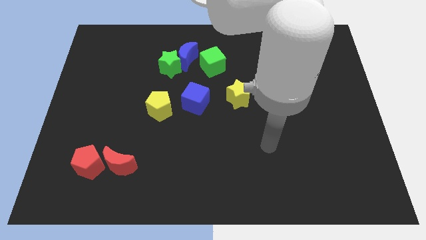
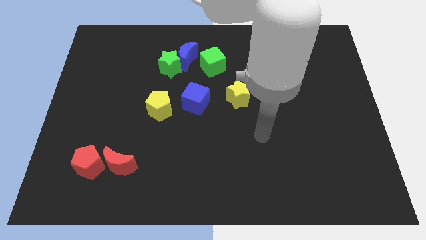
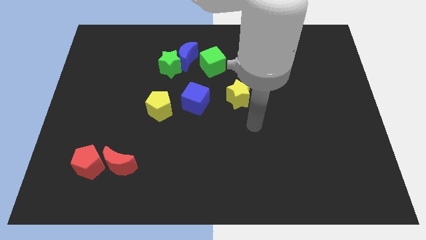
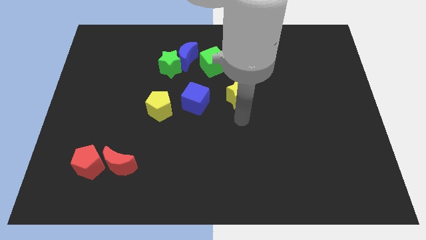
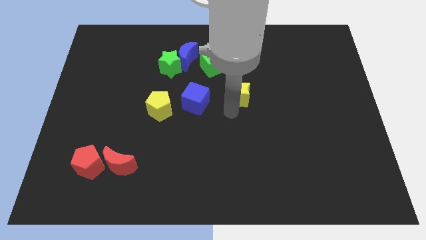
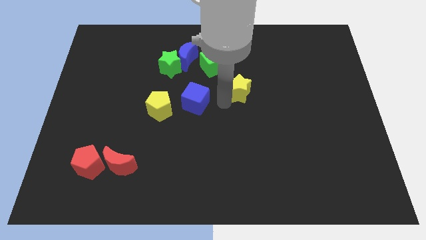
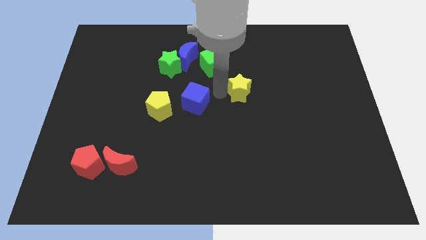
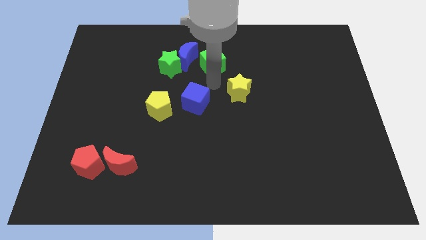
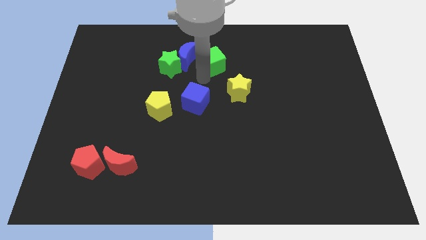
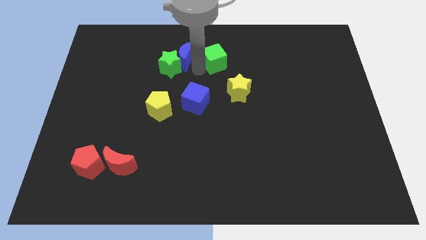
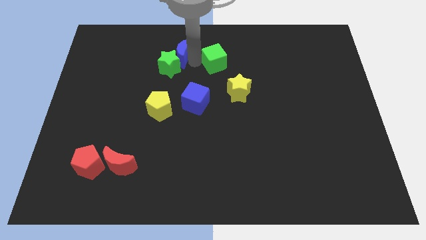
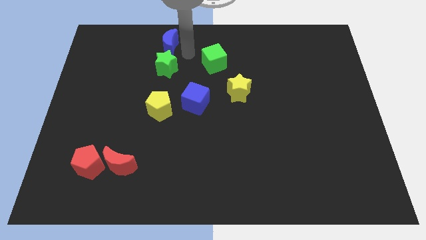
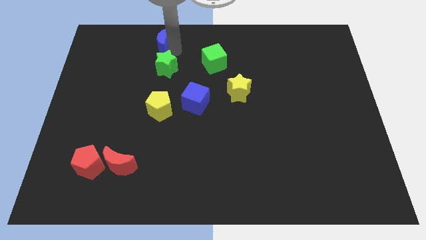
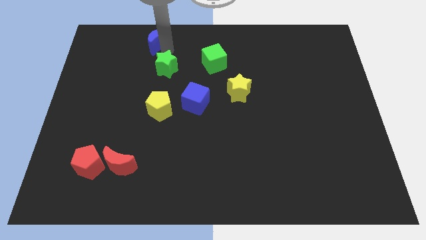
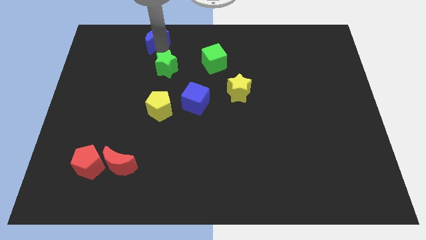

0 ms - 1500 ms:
pull the green star apart from the blue moon

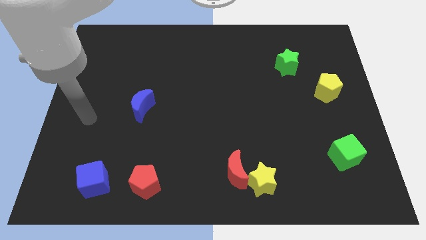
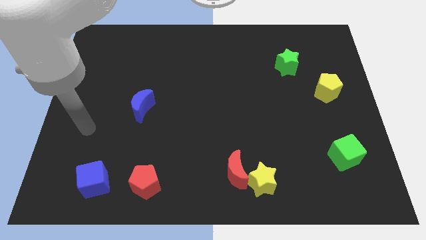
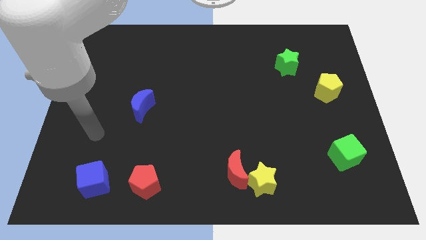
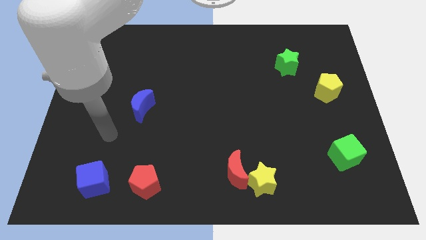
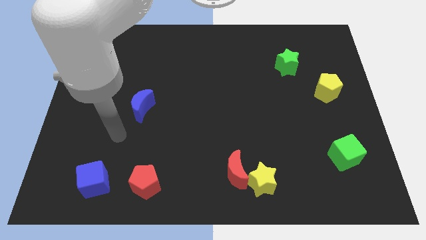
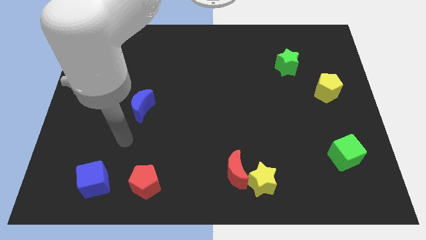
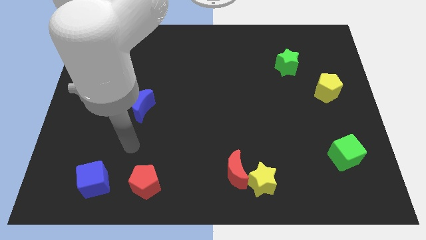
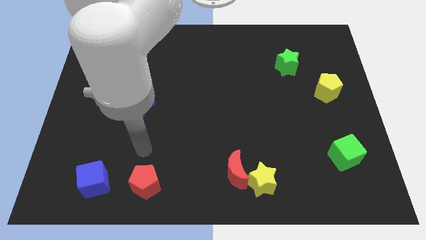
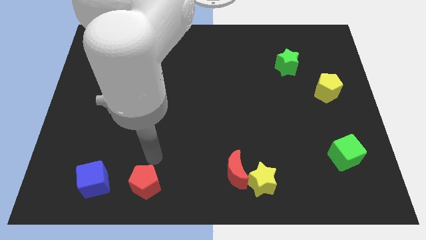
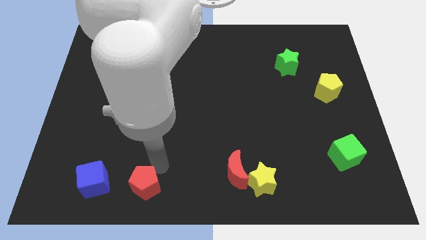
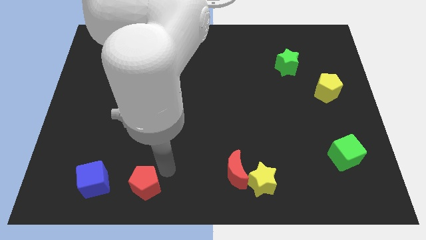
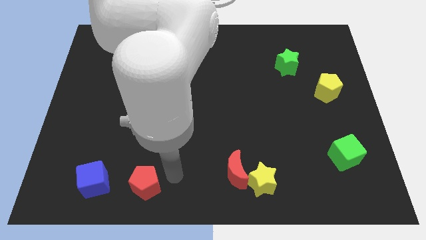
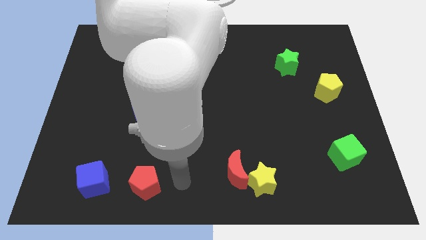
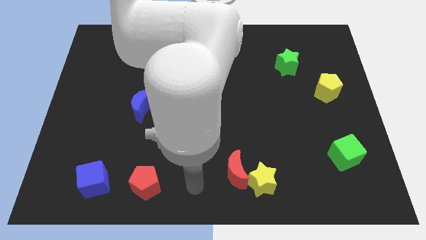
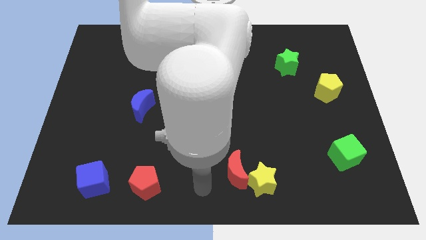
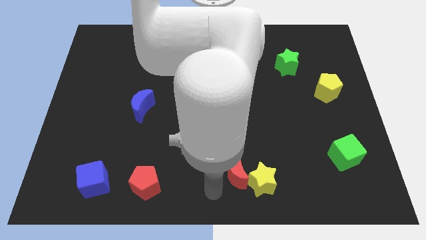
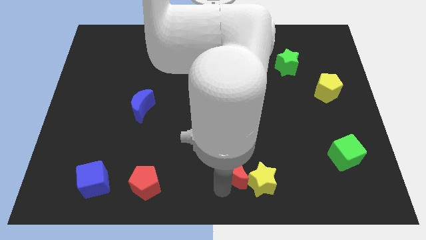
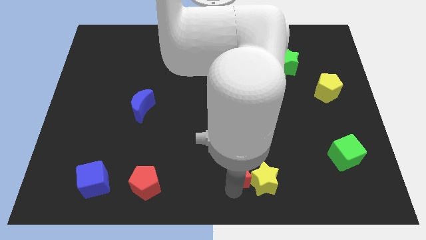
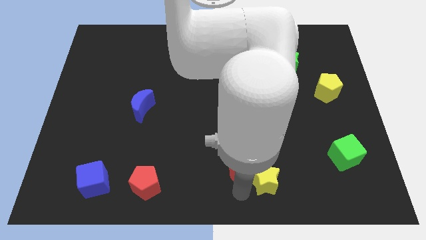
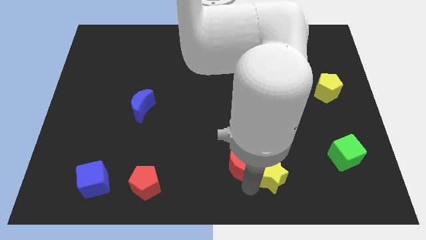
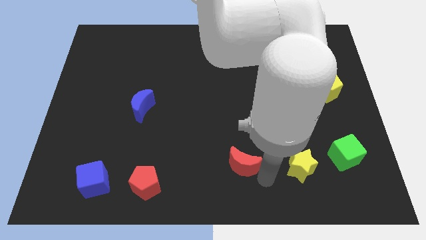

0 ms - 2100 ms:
move the red moon away from the yellow star

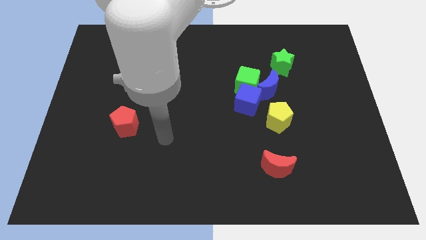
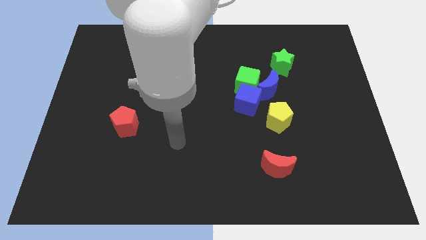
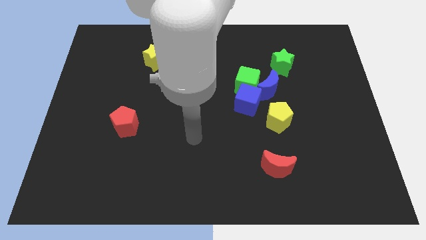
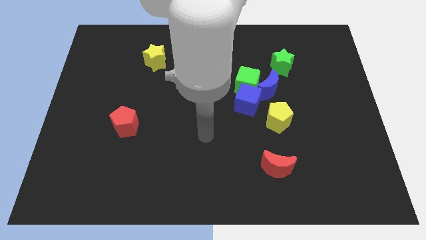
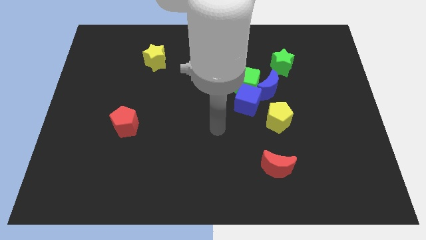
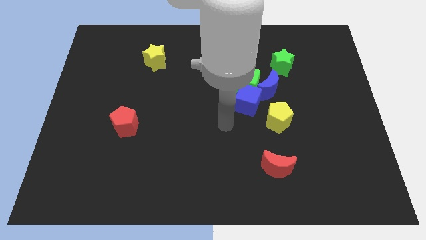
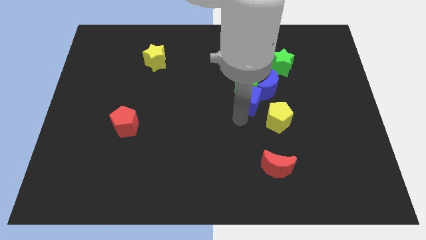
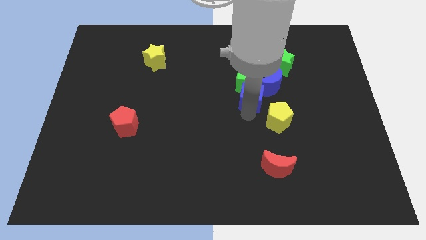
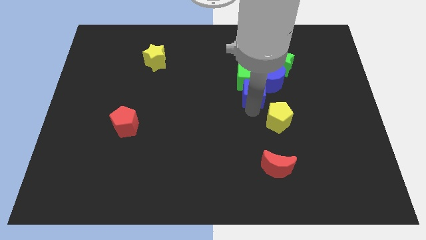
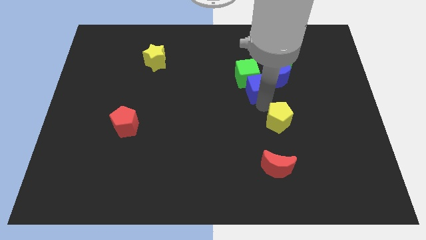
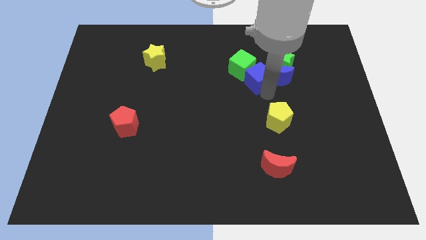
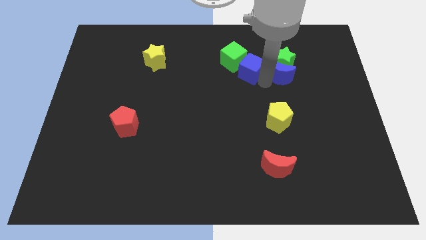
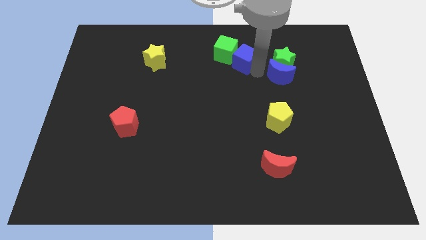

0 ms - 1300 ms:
pull the green cube apart from the blue moon and blue cube

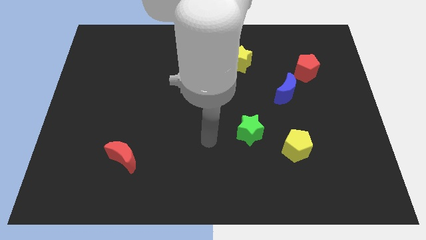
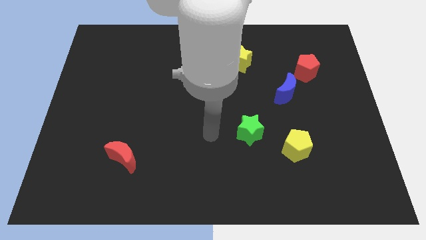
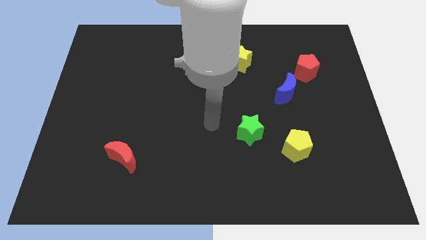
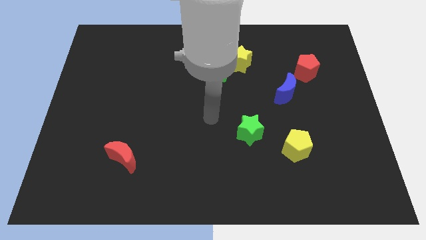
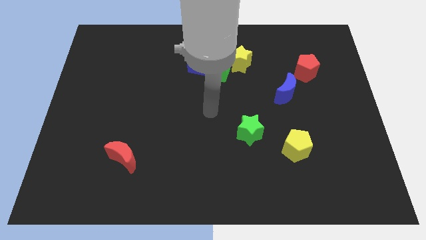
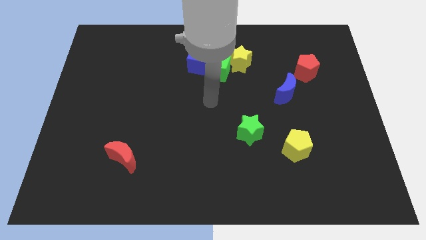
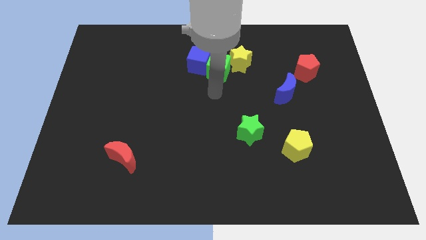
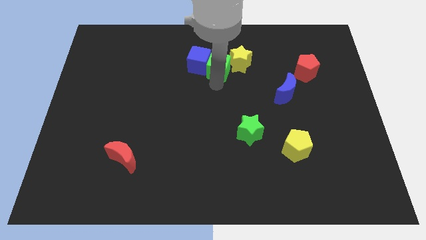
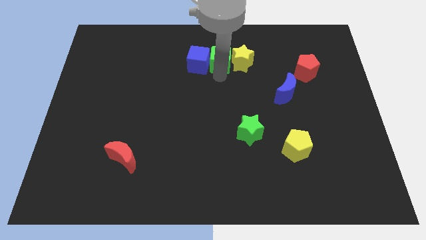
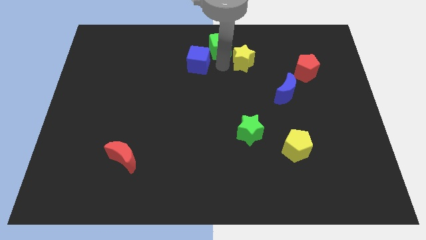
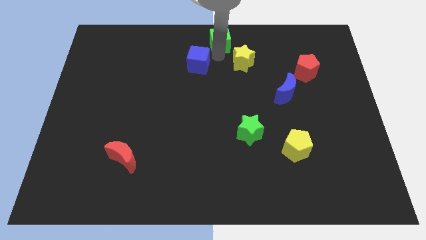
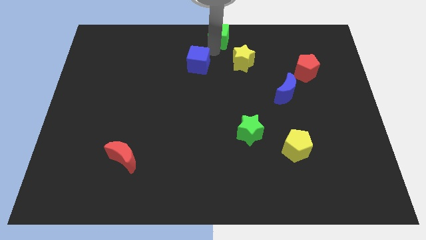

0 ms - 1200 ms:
separate the blue cube from the green cube

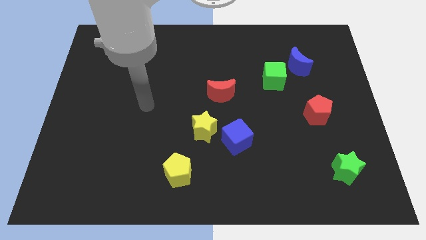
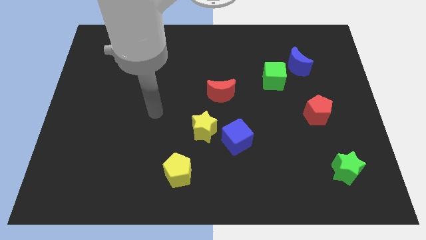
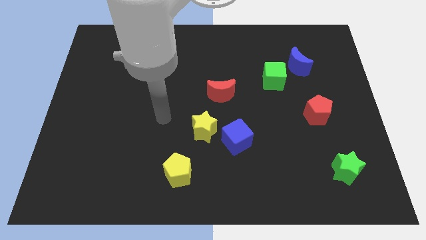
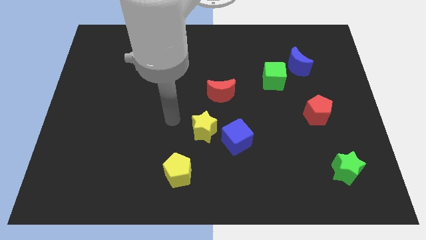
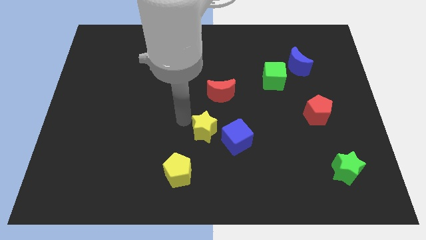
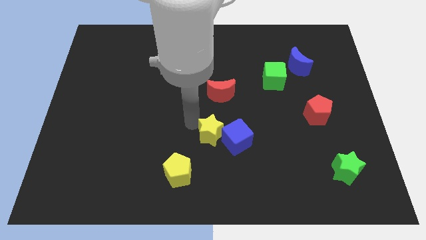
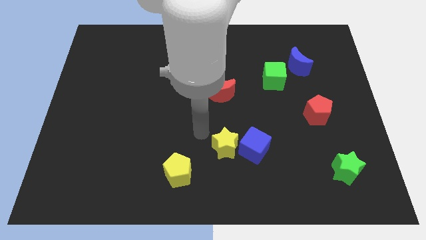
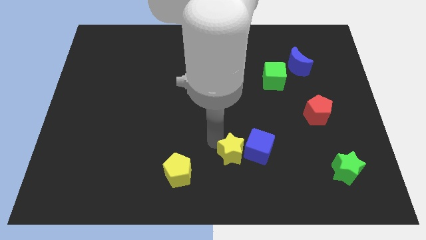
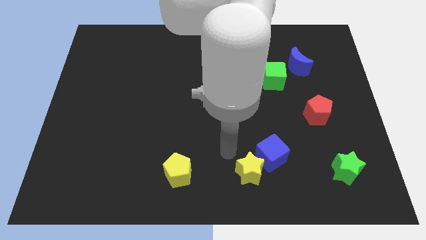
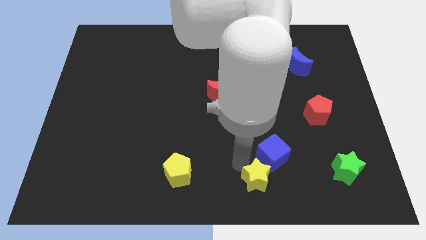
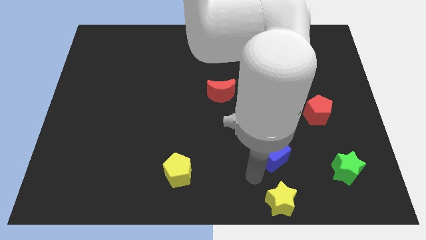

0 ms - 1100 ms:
separate the blue cube from the yellow star

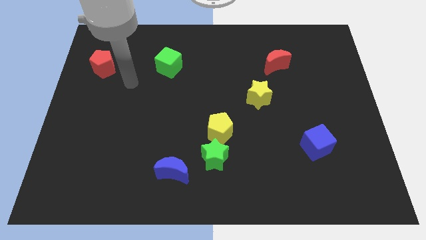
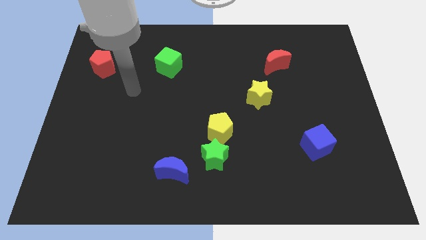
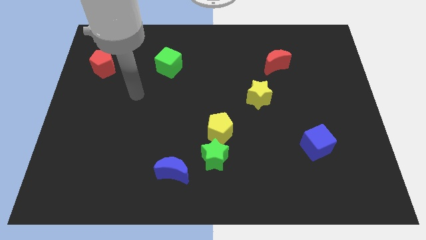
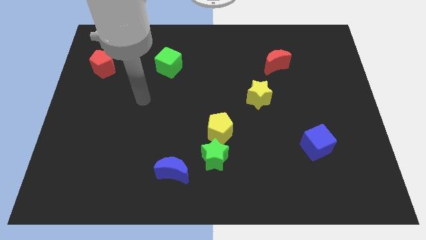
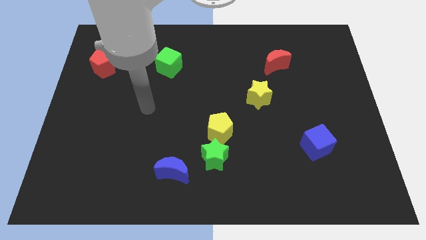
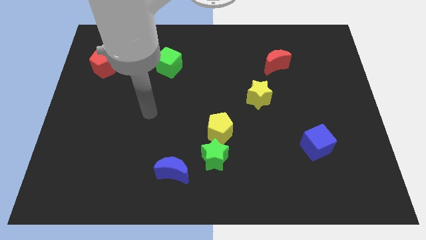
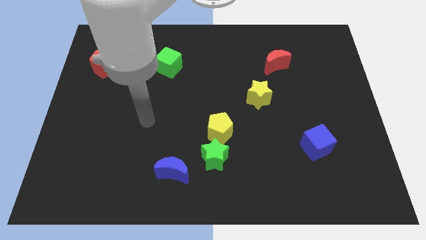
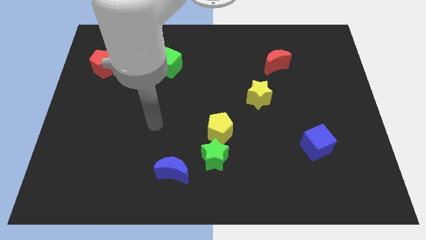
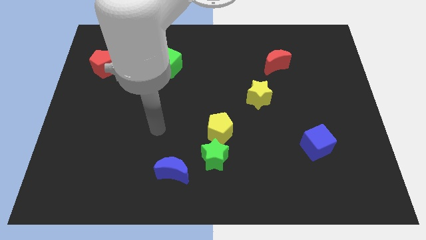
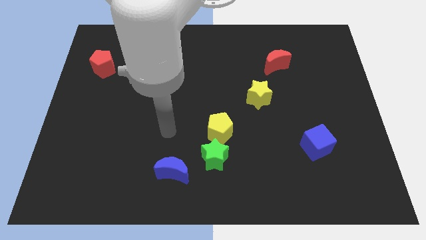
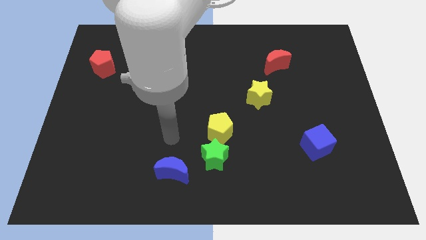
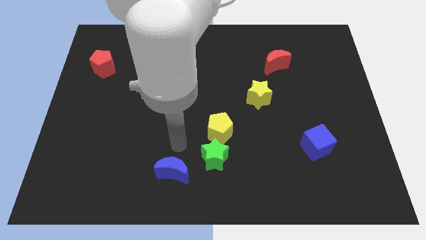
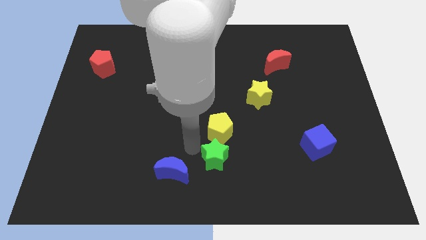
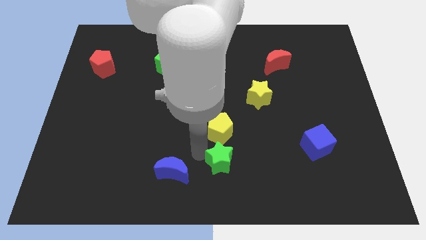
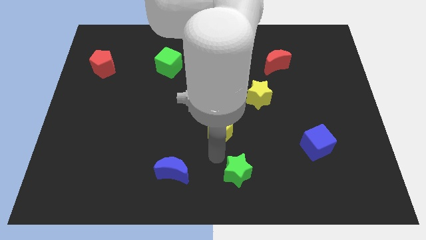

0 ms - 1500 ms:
move the yellow pentagon away from the green star

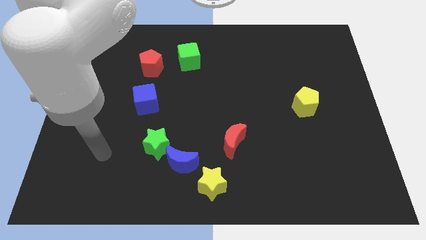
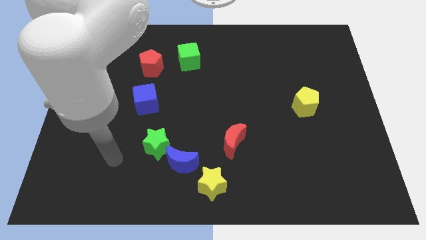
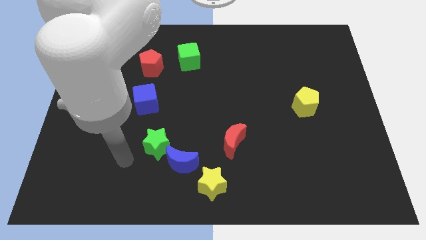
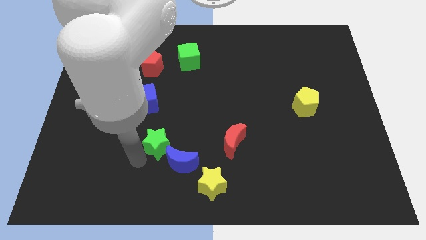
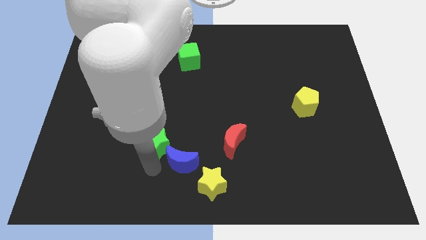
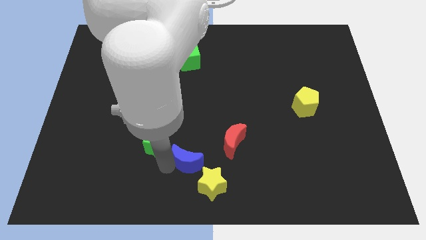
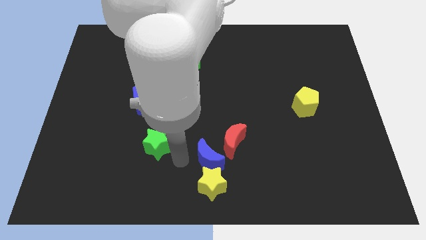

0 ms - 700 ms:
separate the green star from the blue moon

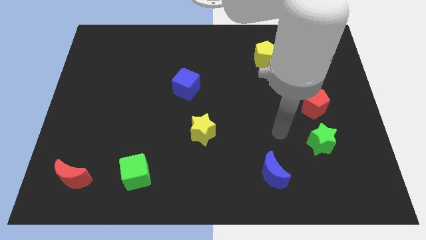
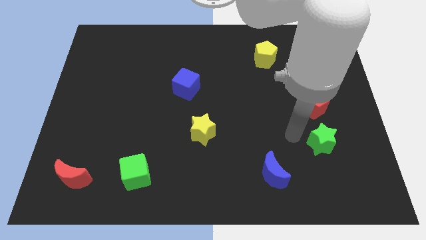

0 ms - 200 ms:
separate the red pentagon from the green star
